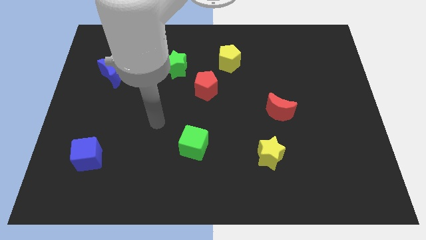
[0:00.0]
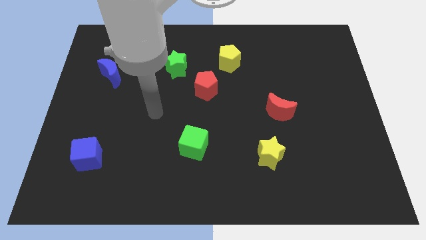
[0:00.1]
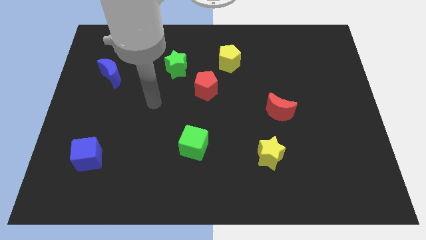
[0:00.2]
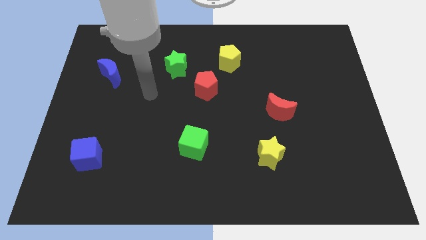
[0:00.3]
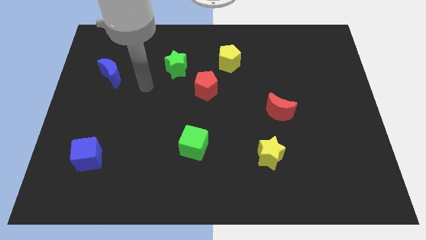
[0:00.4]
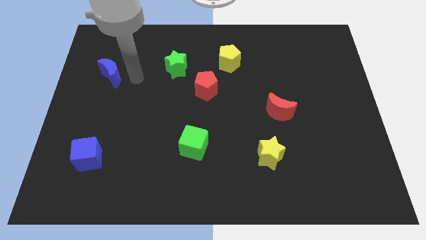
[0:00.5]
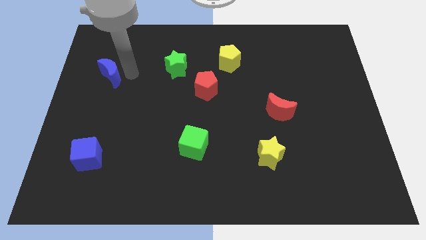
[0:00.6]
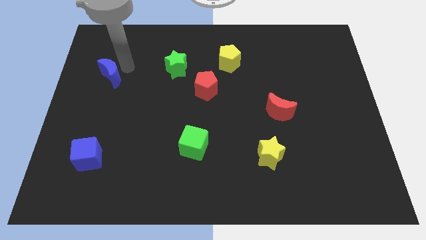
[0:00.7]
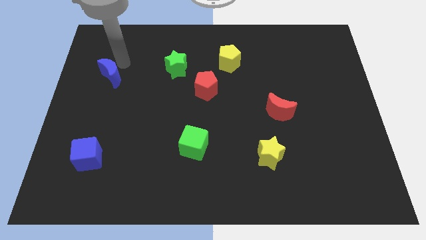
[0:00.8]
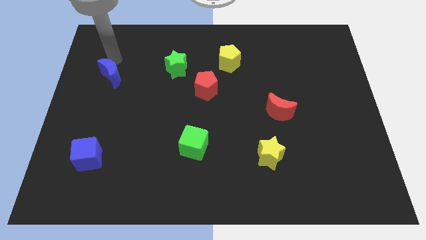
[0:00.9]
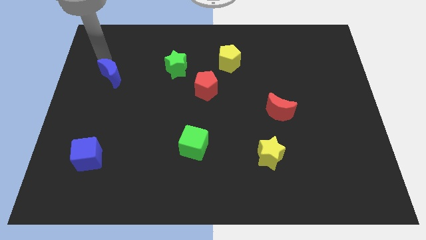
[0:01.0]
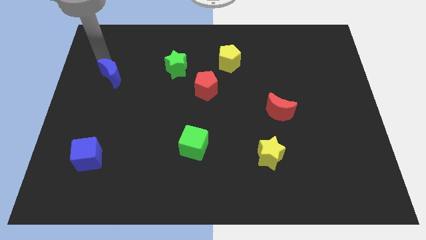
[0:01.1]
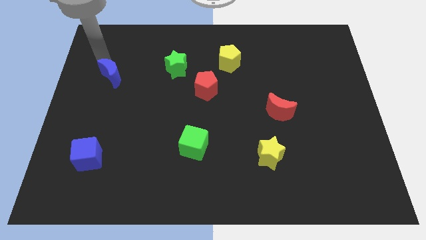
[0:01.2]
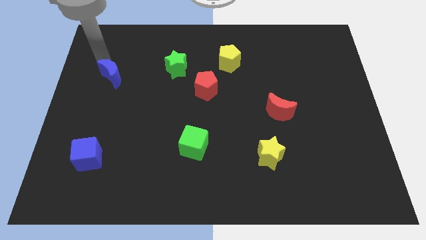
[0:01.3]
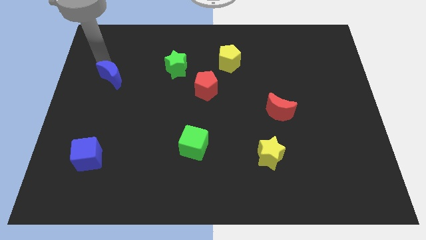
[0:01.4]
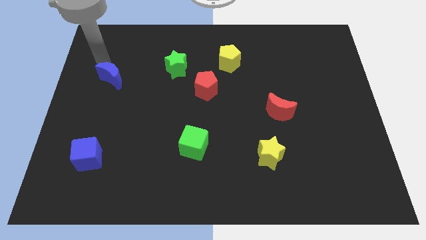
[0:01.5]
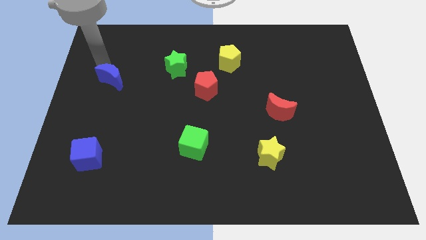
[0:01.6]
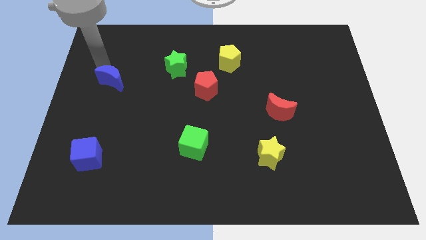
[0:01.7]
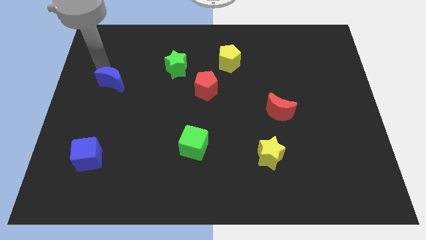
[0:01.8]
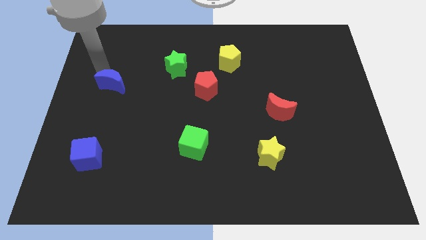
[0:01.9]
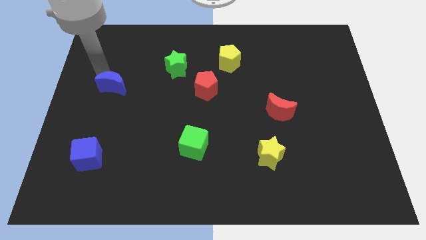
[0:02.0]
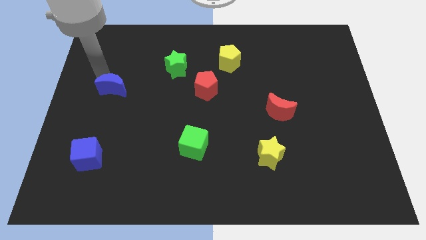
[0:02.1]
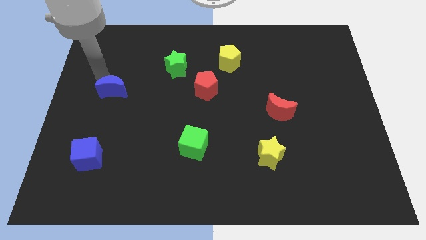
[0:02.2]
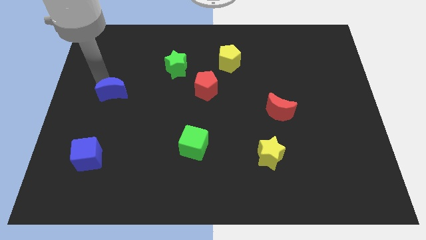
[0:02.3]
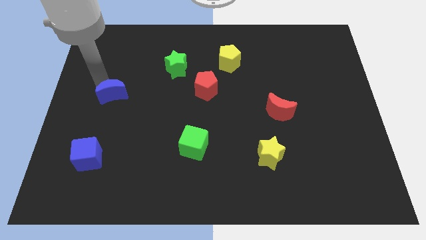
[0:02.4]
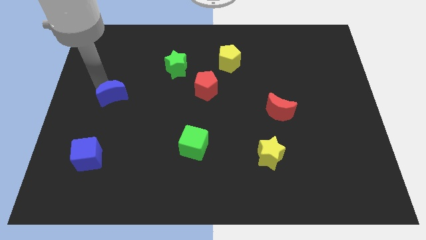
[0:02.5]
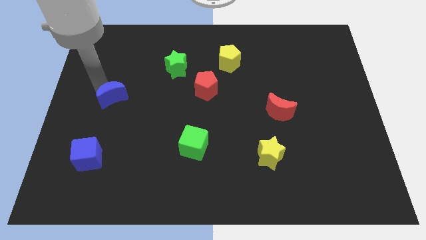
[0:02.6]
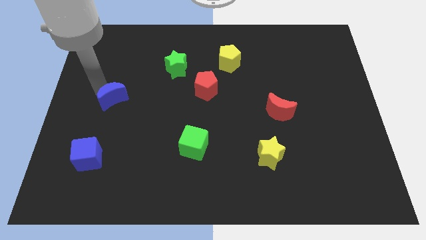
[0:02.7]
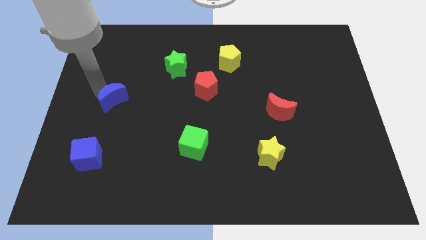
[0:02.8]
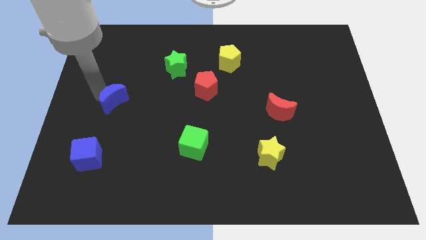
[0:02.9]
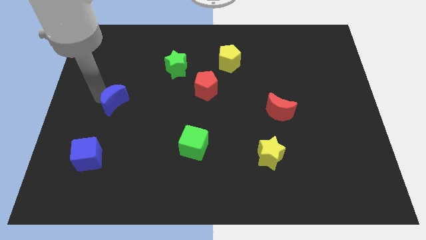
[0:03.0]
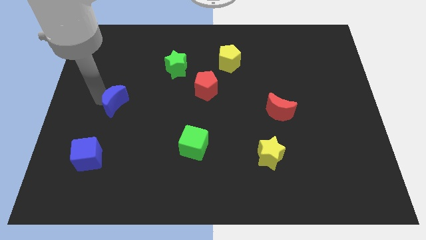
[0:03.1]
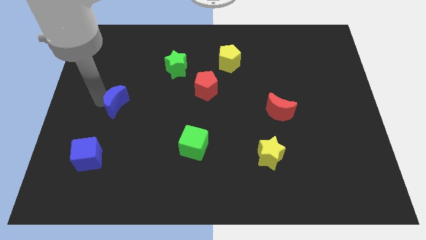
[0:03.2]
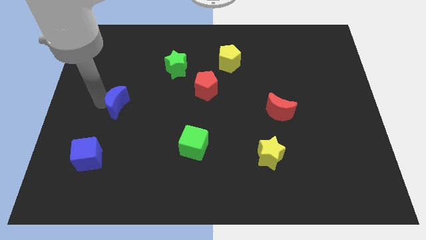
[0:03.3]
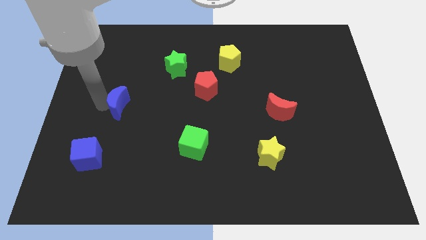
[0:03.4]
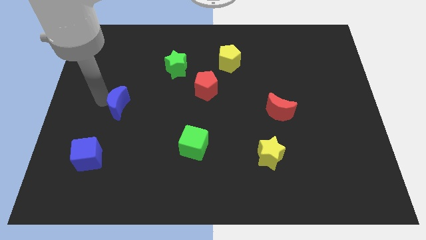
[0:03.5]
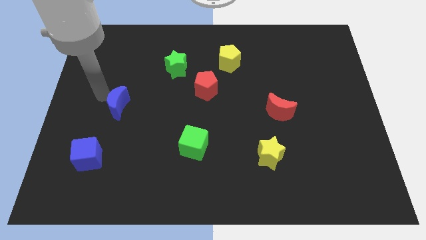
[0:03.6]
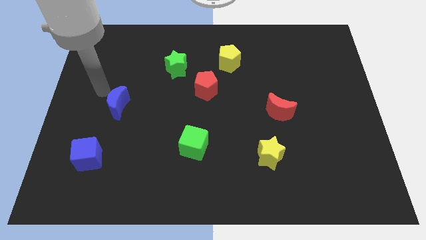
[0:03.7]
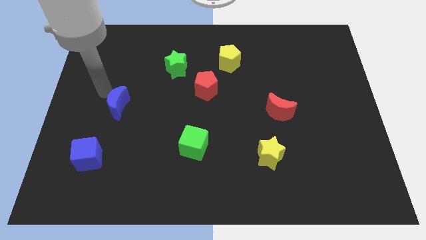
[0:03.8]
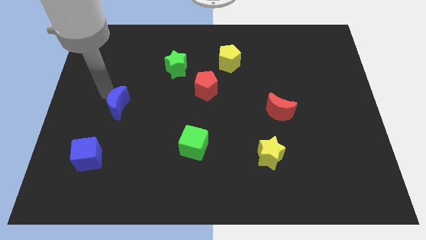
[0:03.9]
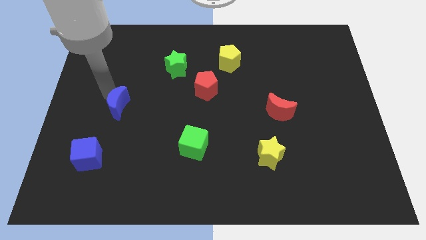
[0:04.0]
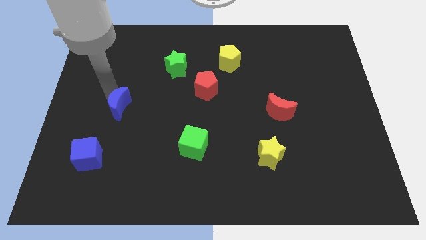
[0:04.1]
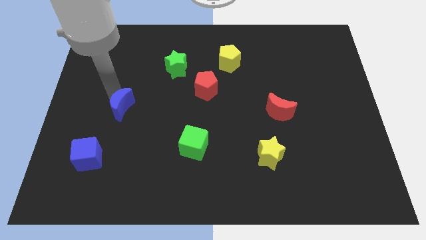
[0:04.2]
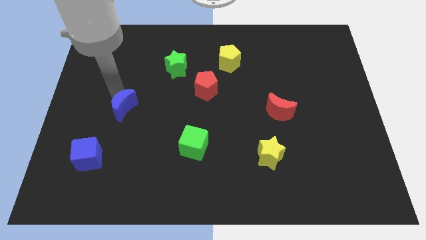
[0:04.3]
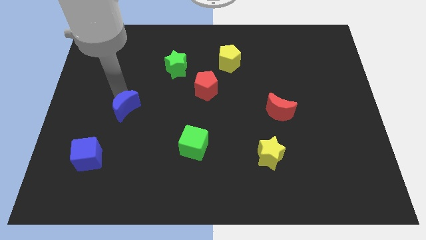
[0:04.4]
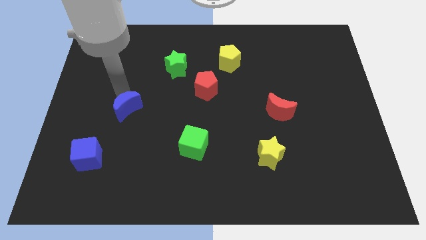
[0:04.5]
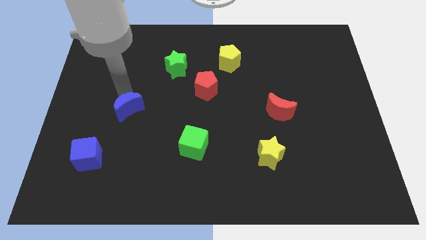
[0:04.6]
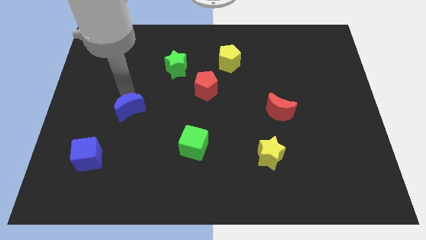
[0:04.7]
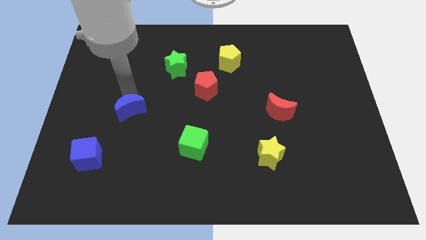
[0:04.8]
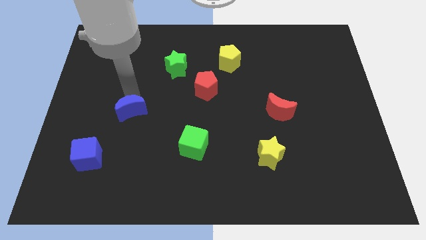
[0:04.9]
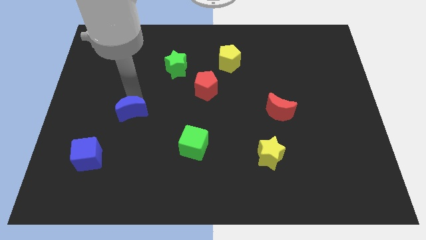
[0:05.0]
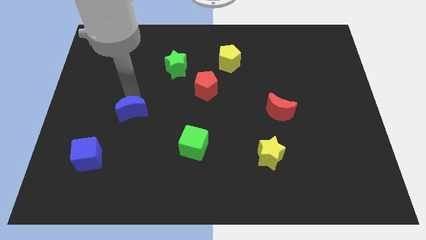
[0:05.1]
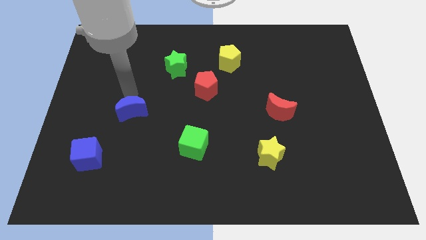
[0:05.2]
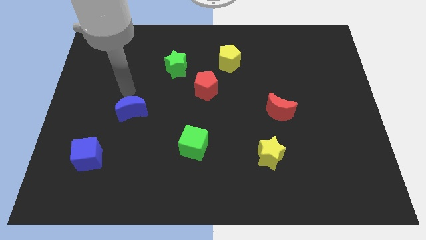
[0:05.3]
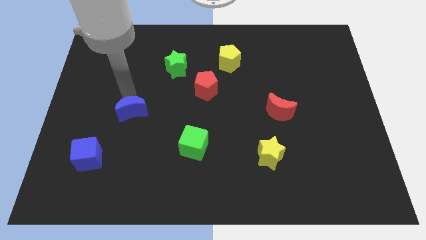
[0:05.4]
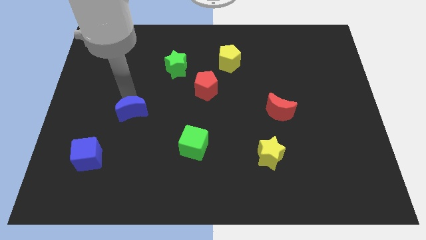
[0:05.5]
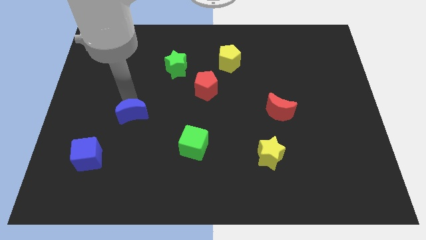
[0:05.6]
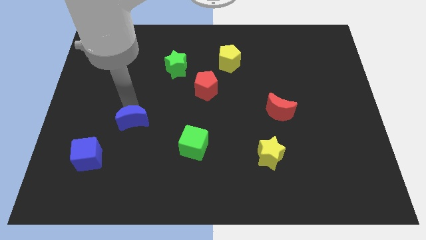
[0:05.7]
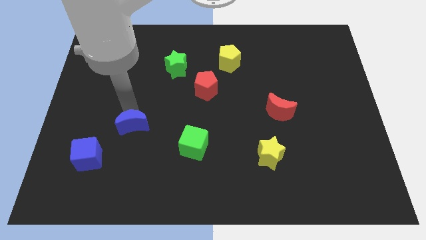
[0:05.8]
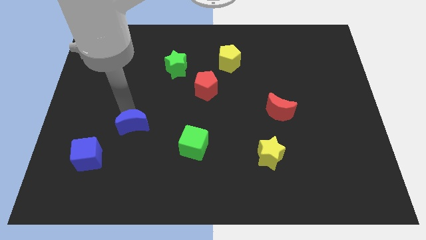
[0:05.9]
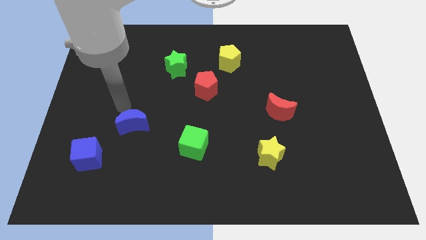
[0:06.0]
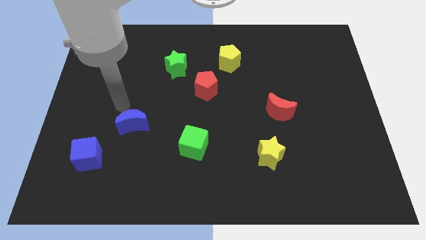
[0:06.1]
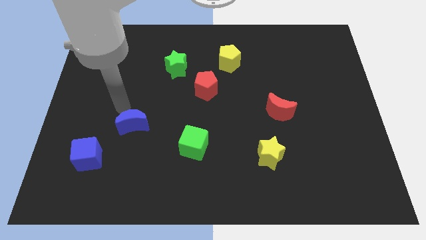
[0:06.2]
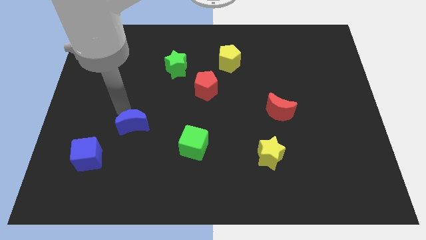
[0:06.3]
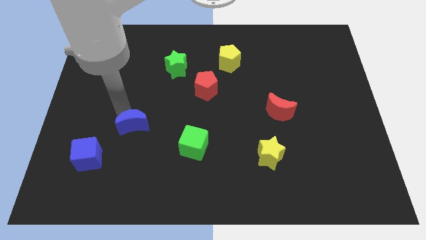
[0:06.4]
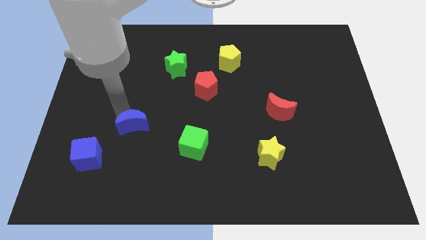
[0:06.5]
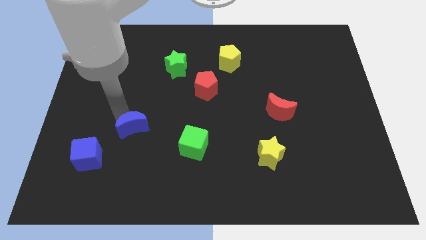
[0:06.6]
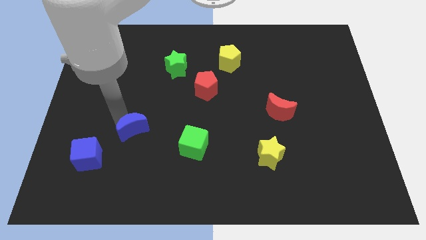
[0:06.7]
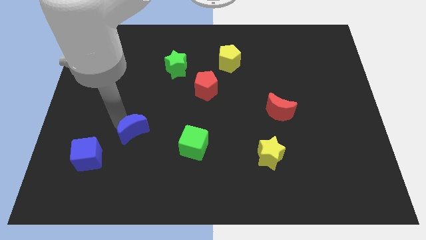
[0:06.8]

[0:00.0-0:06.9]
move the blue moon left of the green cube
